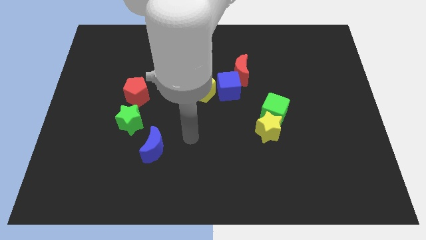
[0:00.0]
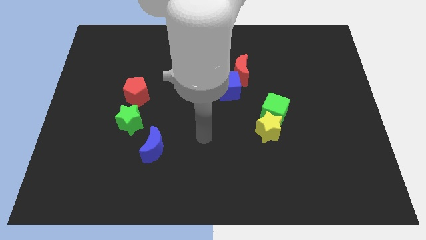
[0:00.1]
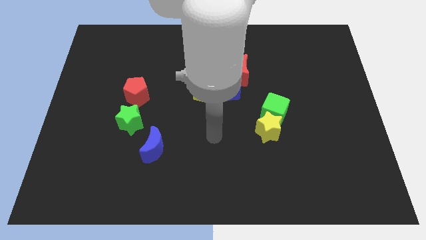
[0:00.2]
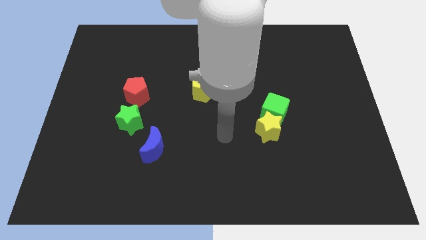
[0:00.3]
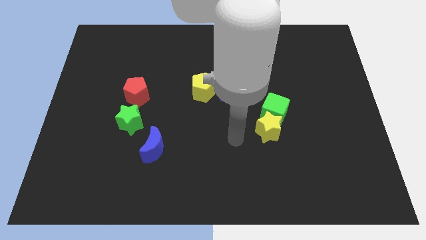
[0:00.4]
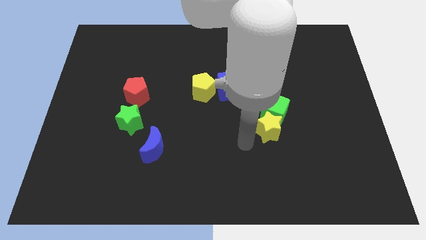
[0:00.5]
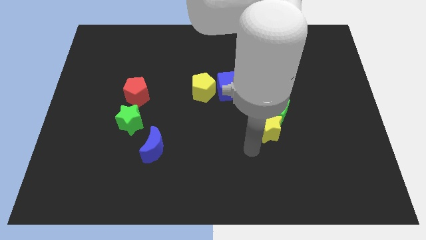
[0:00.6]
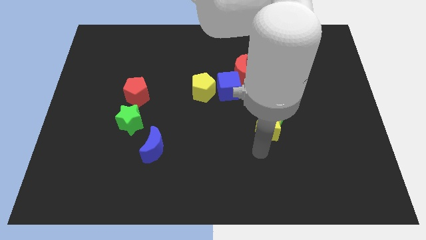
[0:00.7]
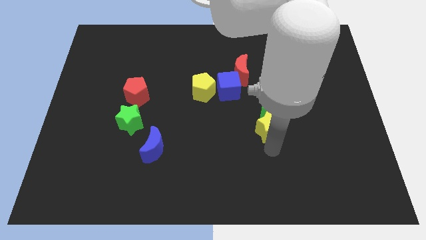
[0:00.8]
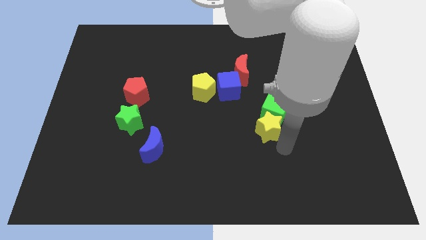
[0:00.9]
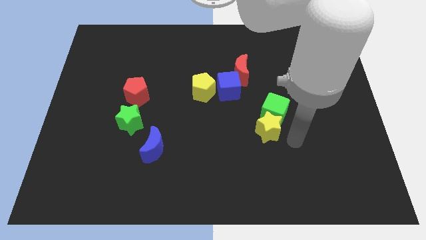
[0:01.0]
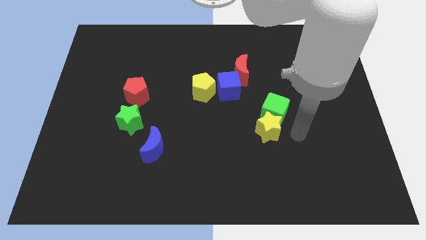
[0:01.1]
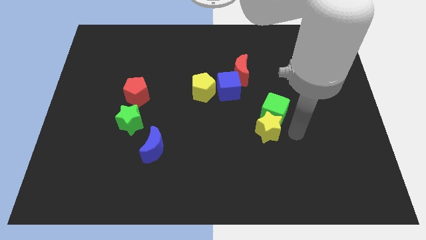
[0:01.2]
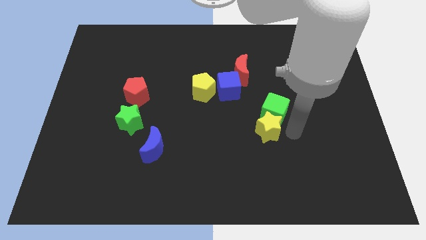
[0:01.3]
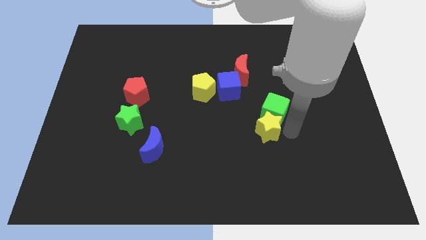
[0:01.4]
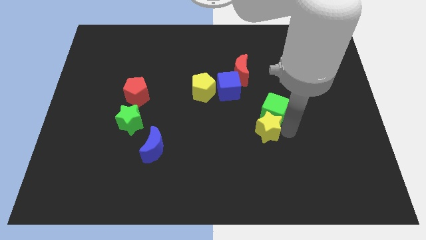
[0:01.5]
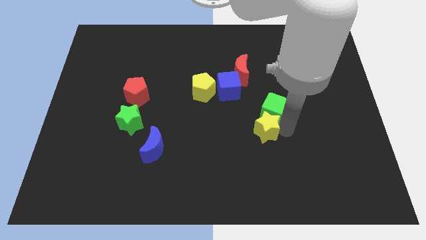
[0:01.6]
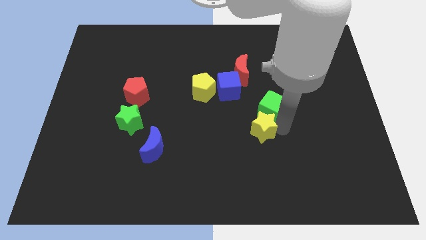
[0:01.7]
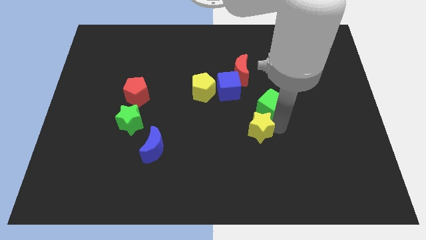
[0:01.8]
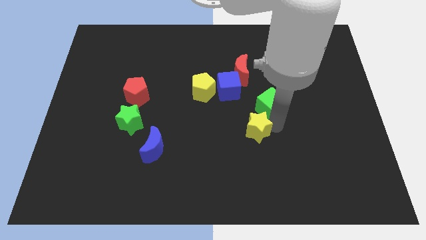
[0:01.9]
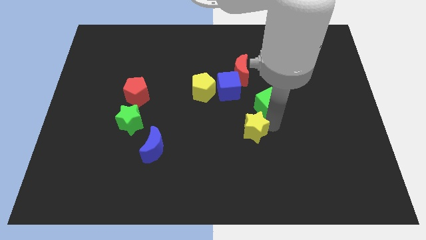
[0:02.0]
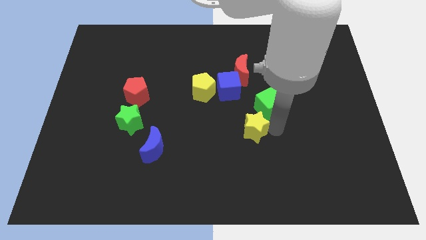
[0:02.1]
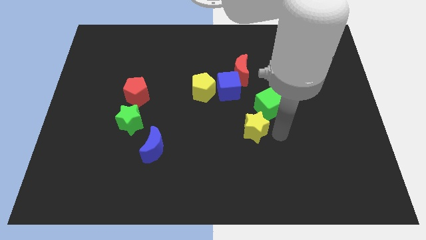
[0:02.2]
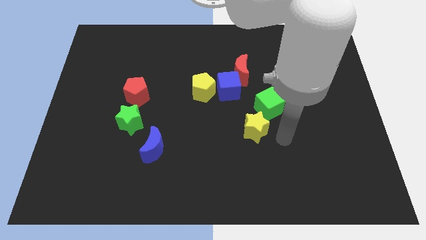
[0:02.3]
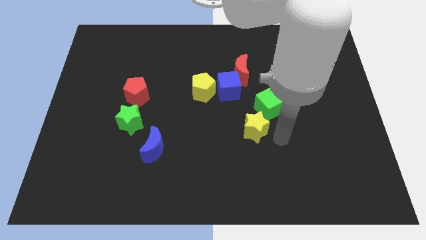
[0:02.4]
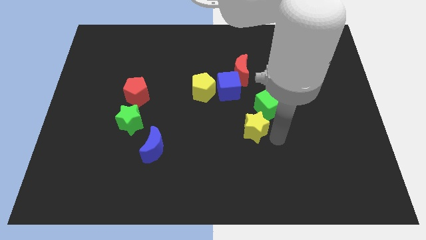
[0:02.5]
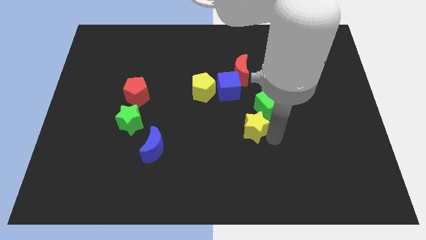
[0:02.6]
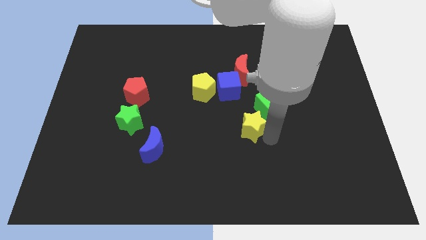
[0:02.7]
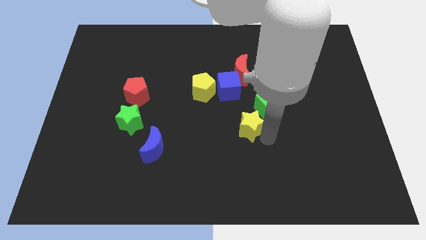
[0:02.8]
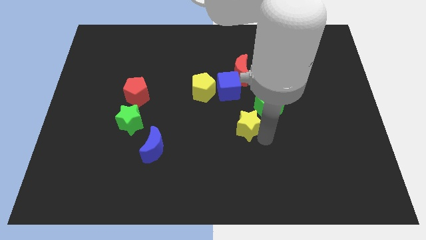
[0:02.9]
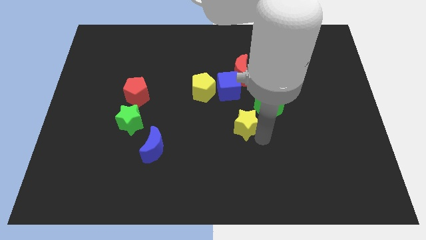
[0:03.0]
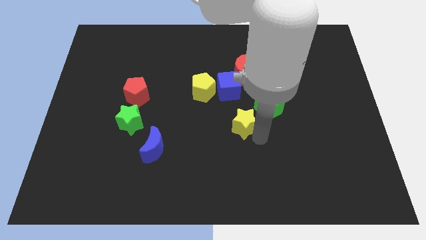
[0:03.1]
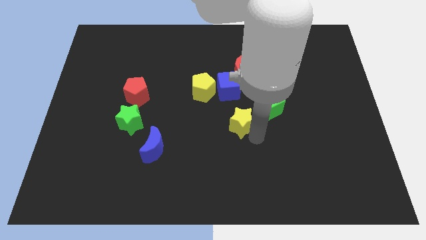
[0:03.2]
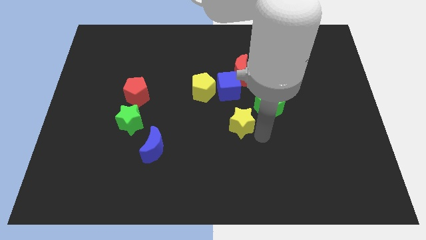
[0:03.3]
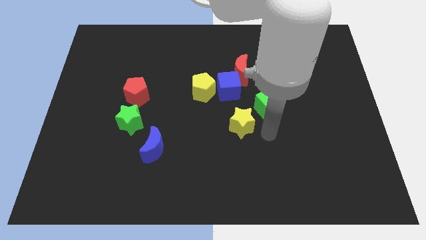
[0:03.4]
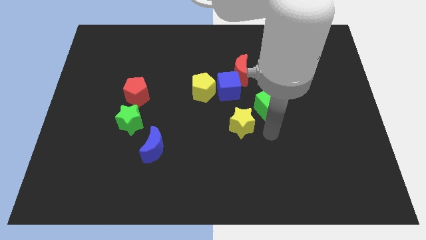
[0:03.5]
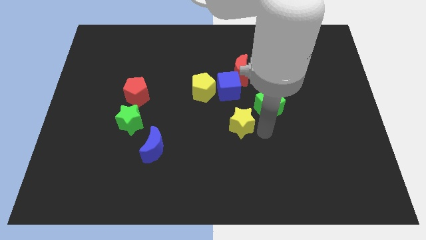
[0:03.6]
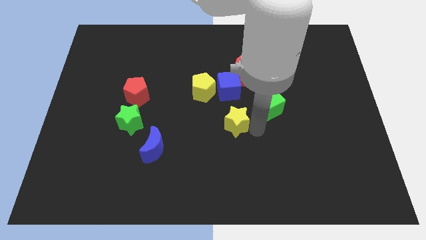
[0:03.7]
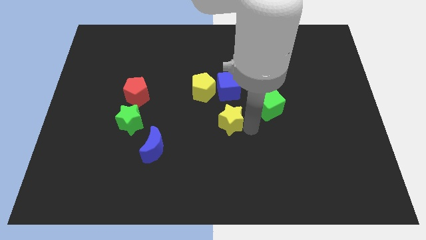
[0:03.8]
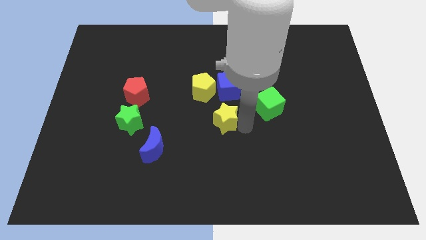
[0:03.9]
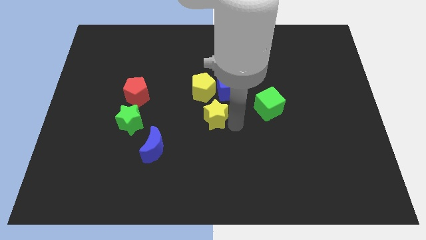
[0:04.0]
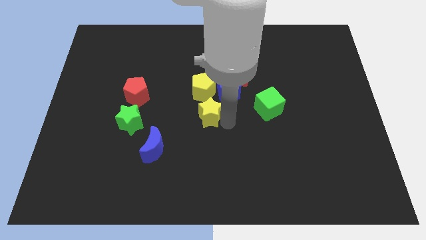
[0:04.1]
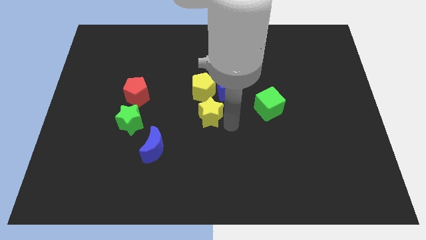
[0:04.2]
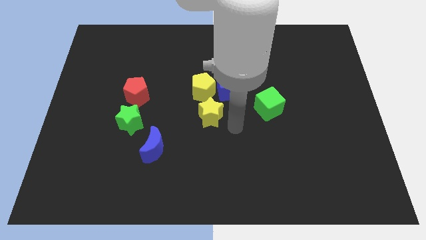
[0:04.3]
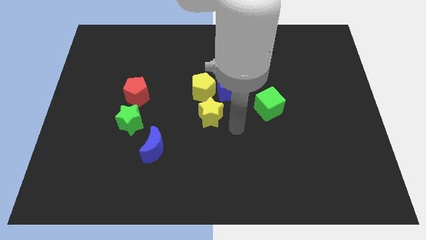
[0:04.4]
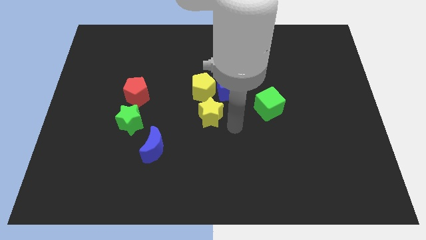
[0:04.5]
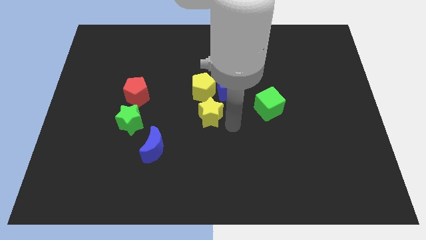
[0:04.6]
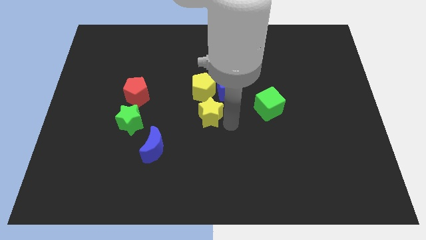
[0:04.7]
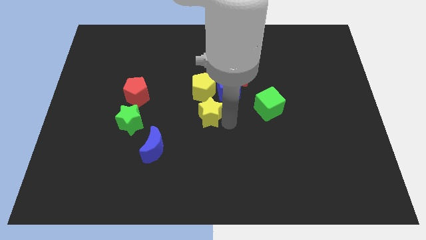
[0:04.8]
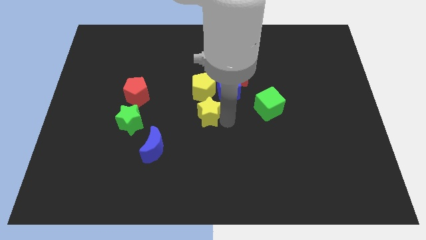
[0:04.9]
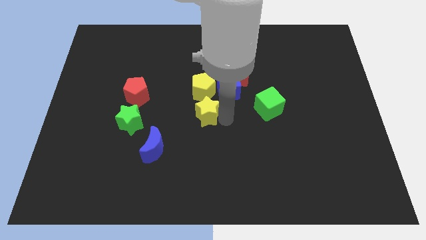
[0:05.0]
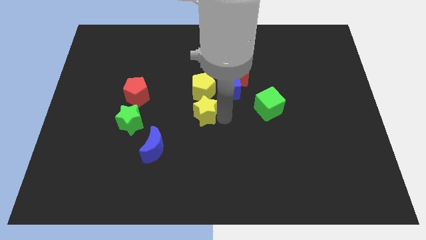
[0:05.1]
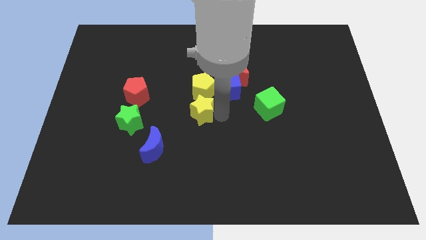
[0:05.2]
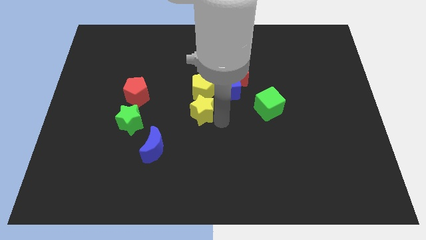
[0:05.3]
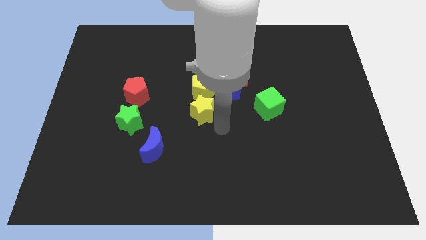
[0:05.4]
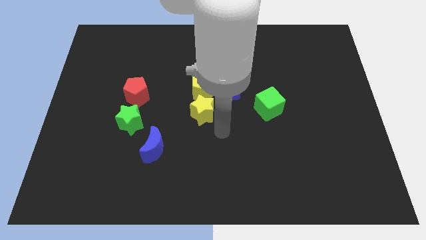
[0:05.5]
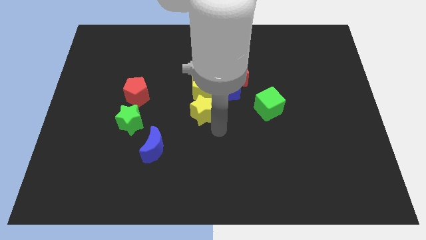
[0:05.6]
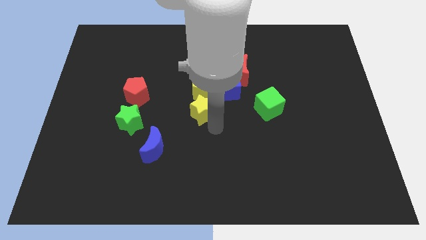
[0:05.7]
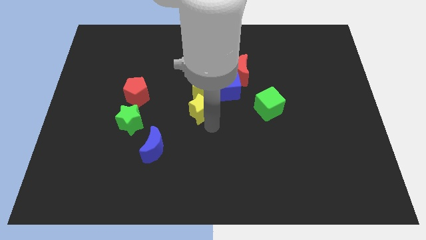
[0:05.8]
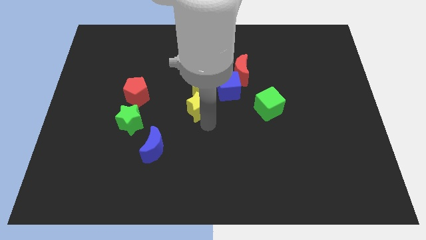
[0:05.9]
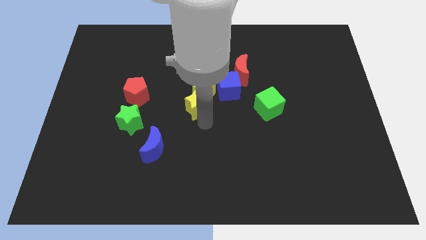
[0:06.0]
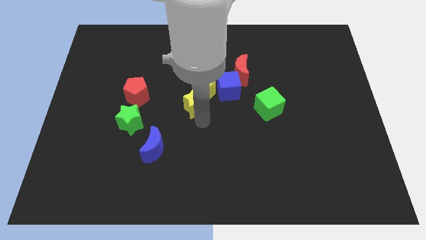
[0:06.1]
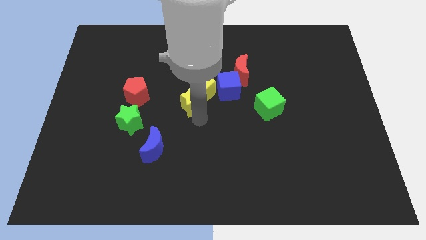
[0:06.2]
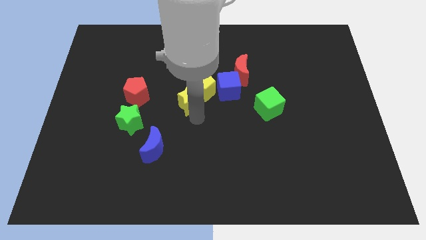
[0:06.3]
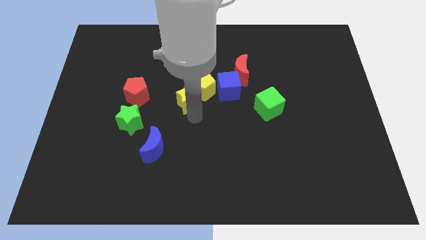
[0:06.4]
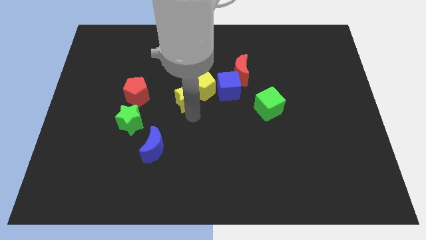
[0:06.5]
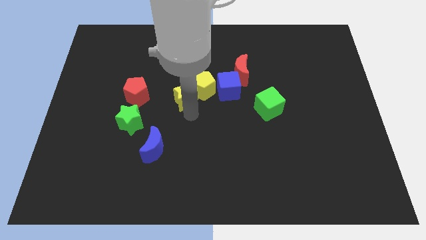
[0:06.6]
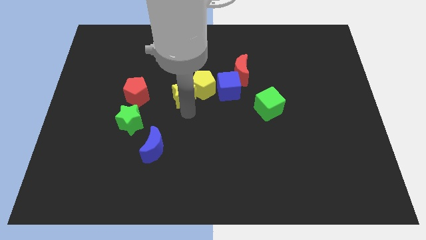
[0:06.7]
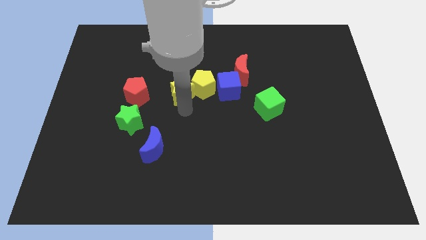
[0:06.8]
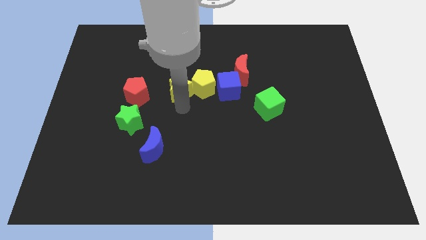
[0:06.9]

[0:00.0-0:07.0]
push the yellow star up and left

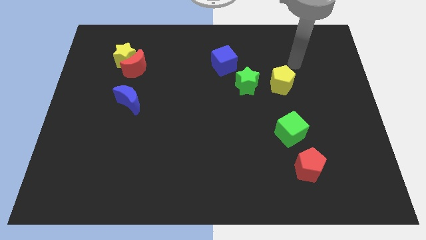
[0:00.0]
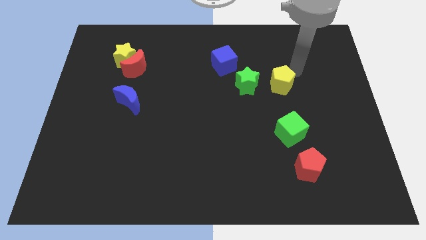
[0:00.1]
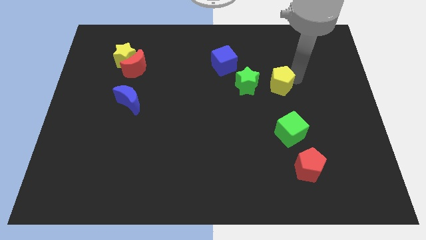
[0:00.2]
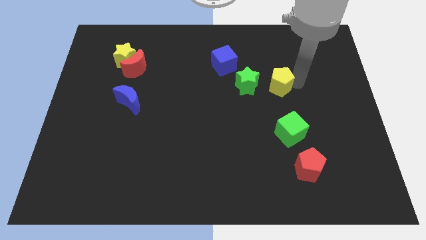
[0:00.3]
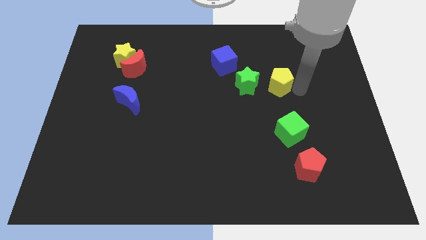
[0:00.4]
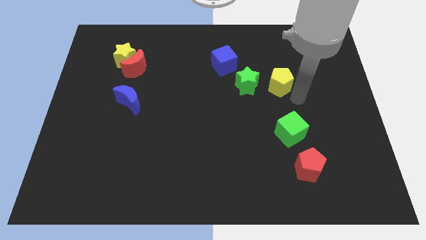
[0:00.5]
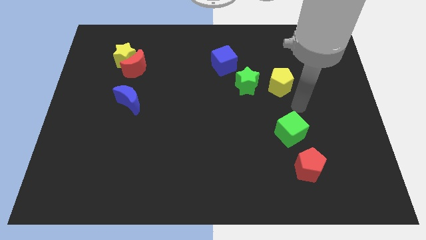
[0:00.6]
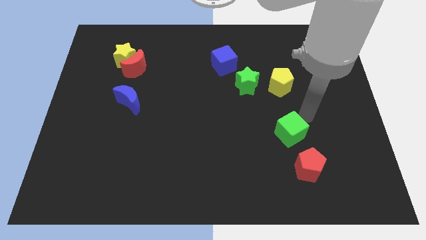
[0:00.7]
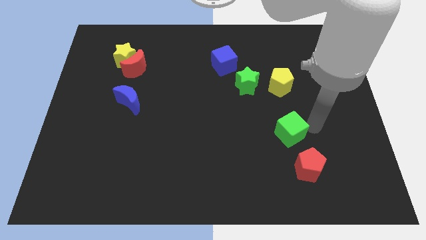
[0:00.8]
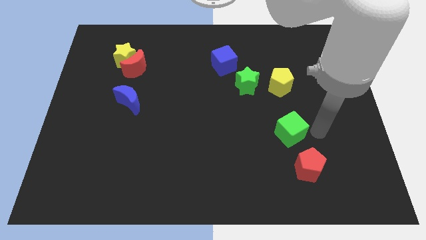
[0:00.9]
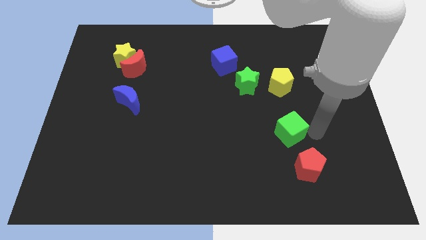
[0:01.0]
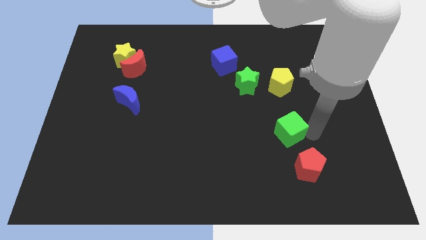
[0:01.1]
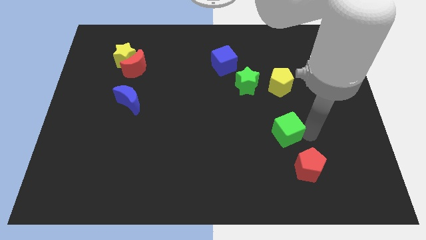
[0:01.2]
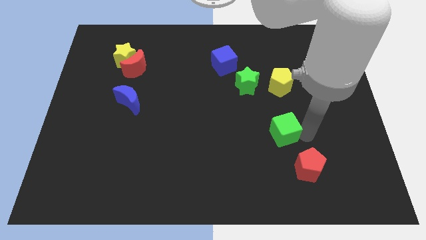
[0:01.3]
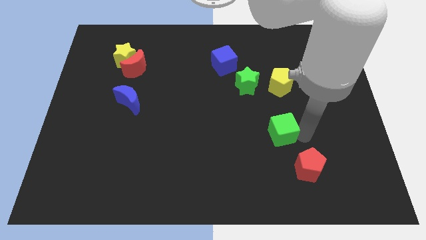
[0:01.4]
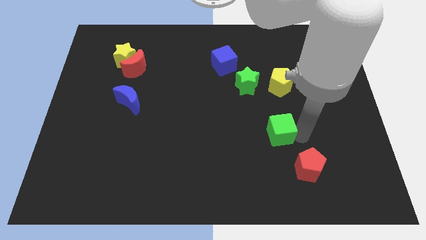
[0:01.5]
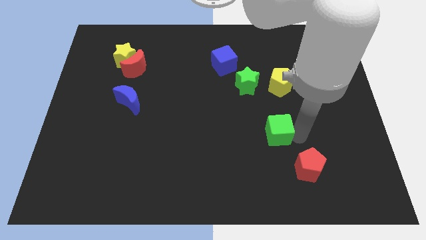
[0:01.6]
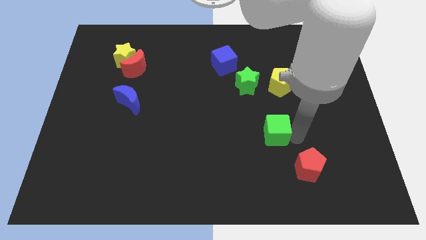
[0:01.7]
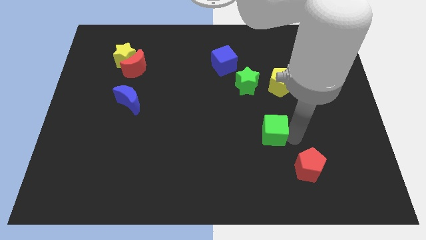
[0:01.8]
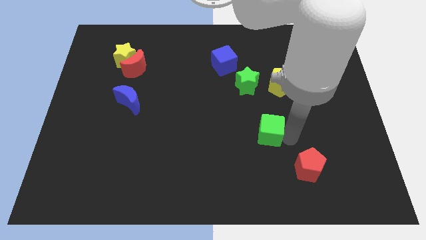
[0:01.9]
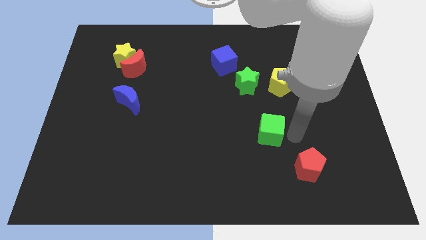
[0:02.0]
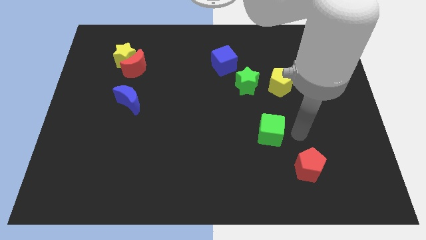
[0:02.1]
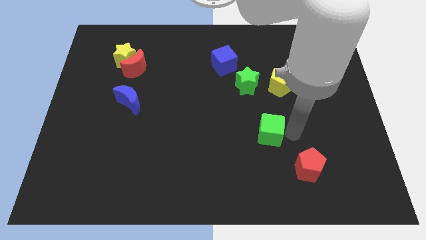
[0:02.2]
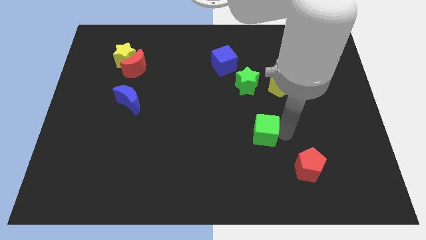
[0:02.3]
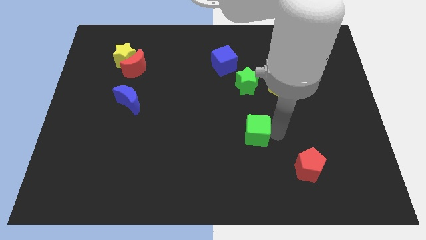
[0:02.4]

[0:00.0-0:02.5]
move the green cube a little bit to the left
